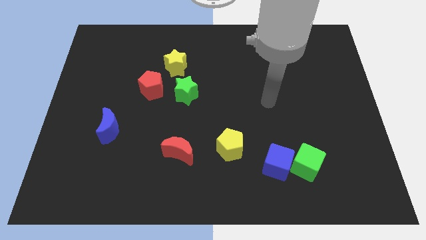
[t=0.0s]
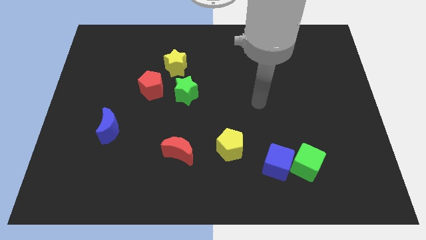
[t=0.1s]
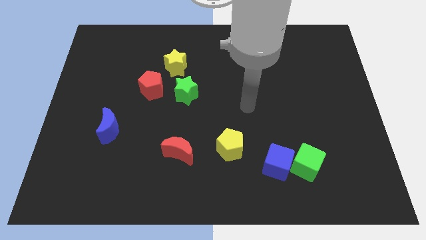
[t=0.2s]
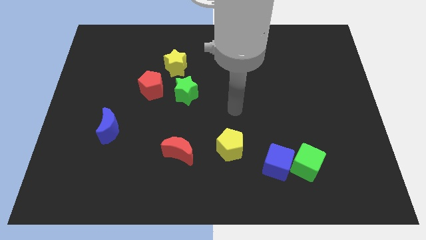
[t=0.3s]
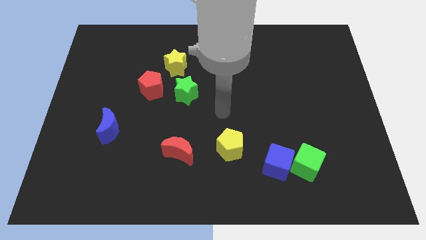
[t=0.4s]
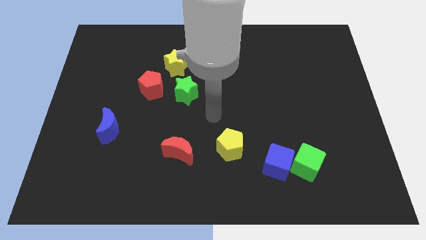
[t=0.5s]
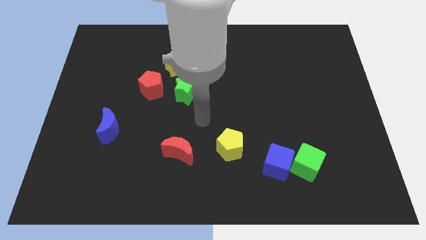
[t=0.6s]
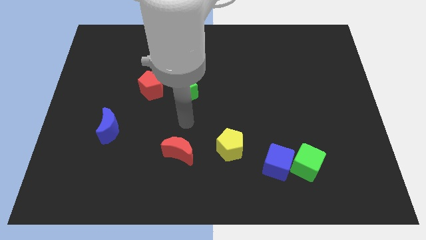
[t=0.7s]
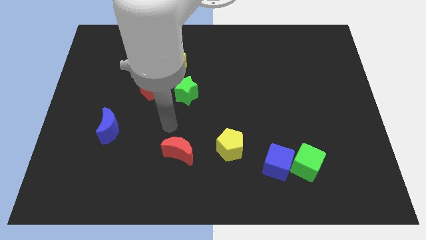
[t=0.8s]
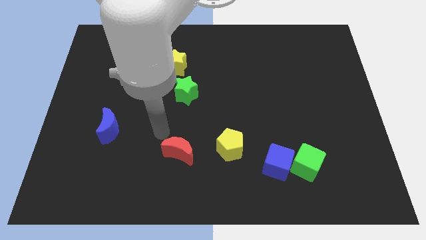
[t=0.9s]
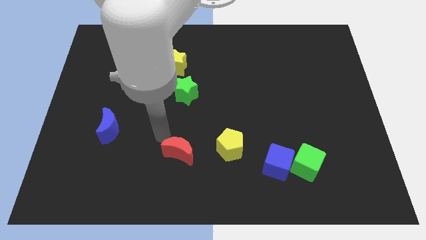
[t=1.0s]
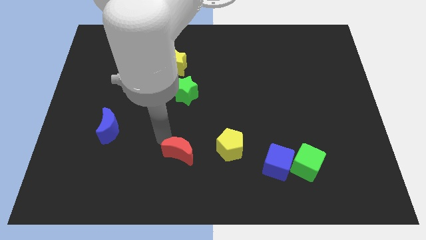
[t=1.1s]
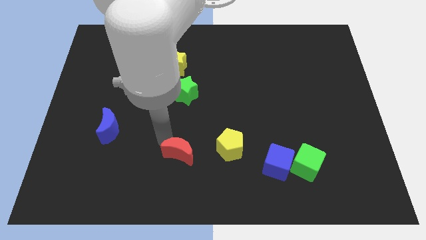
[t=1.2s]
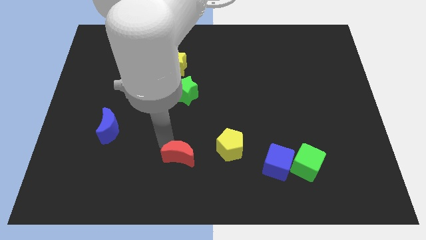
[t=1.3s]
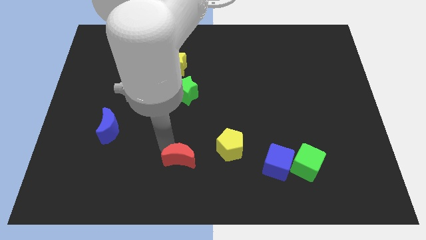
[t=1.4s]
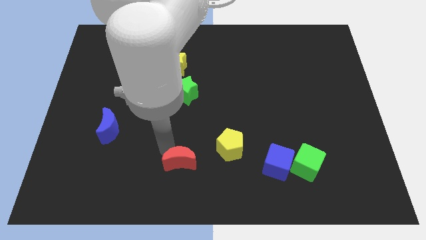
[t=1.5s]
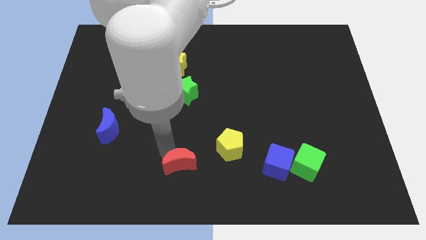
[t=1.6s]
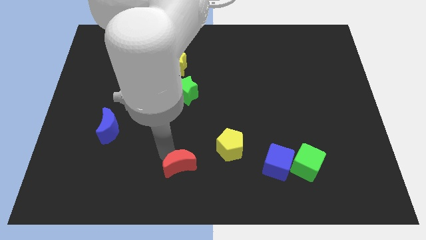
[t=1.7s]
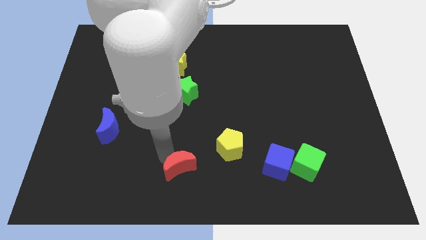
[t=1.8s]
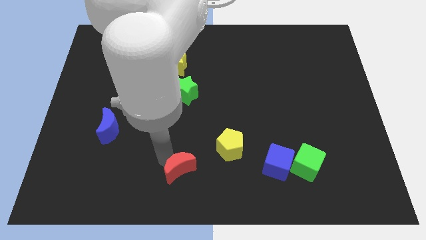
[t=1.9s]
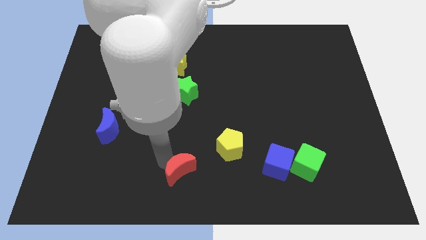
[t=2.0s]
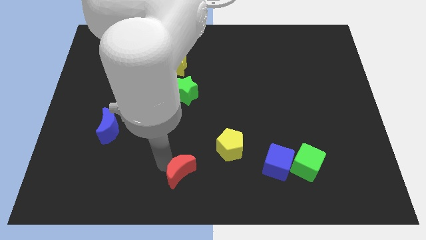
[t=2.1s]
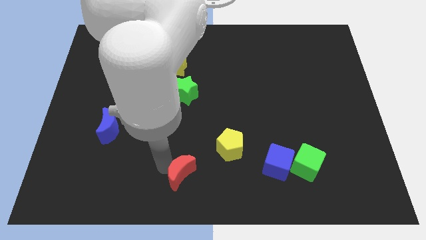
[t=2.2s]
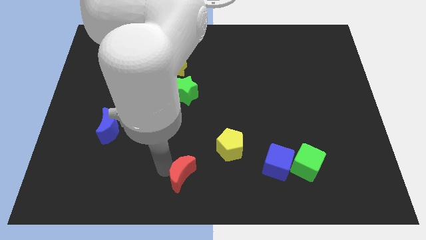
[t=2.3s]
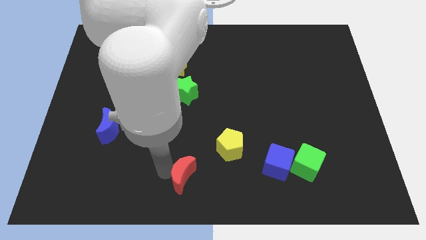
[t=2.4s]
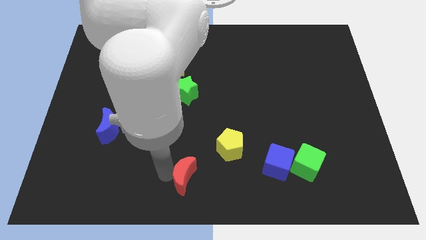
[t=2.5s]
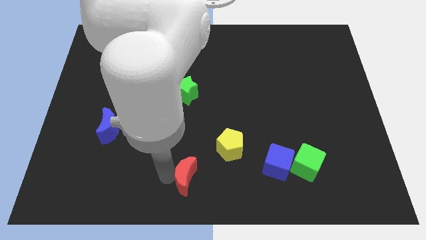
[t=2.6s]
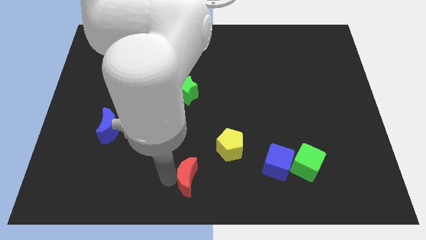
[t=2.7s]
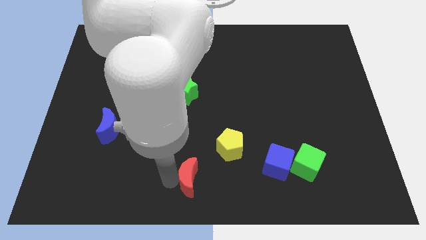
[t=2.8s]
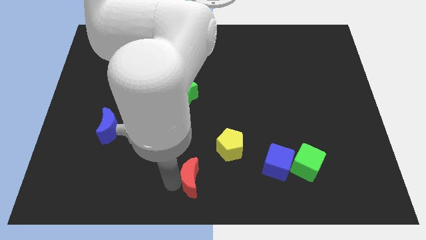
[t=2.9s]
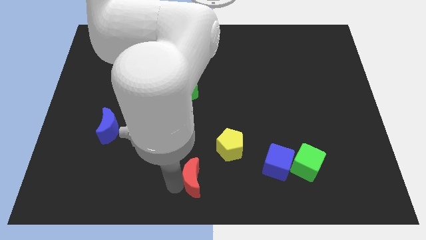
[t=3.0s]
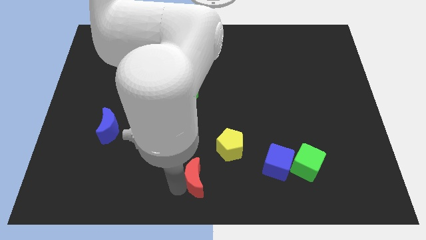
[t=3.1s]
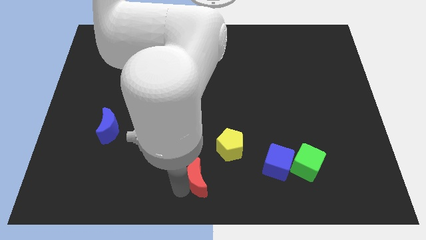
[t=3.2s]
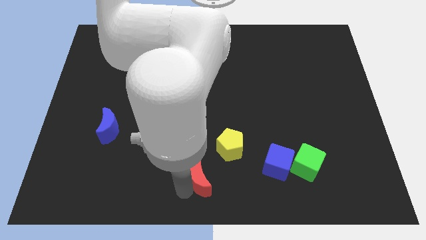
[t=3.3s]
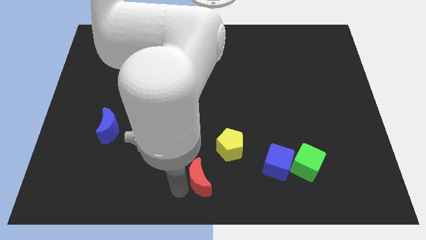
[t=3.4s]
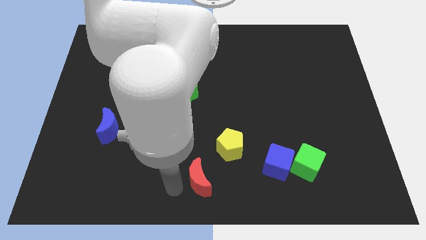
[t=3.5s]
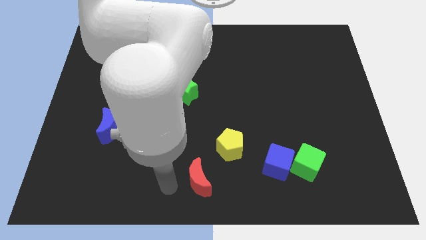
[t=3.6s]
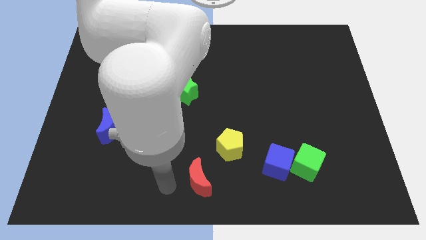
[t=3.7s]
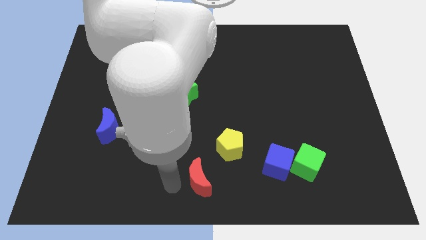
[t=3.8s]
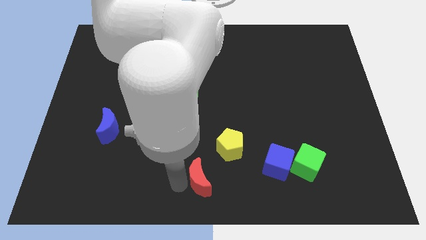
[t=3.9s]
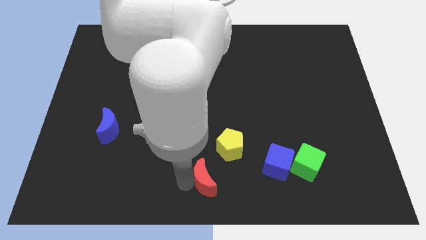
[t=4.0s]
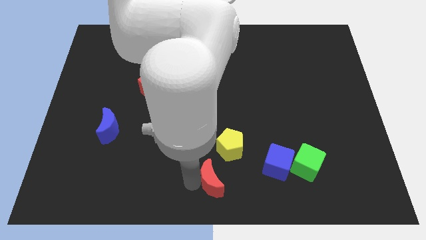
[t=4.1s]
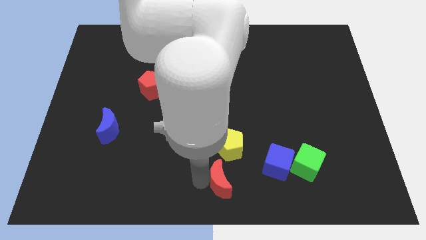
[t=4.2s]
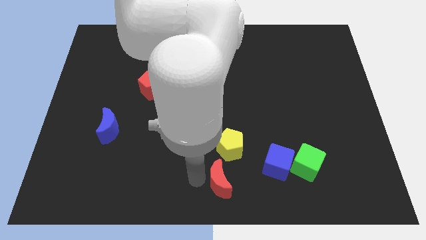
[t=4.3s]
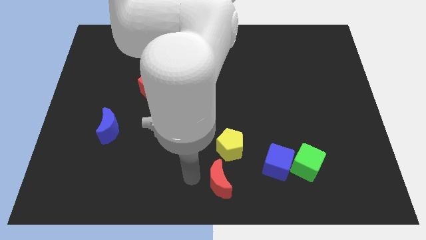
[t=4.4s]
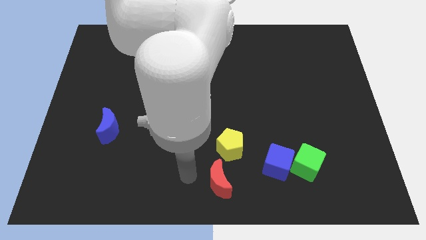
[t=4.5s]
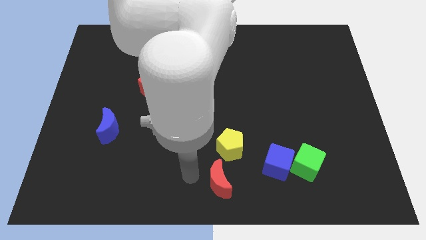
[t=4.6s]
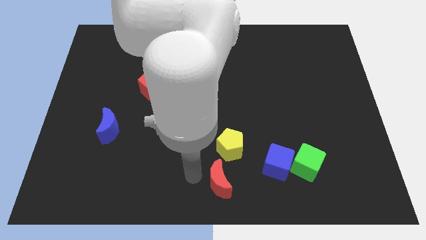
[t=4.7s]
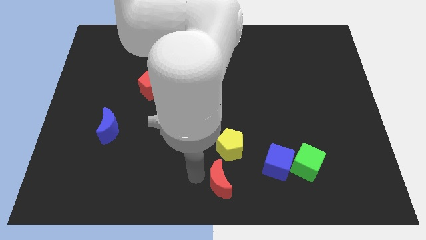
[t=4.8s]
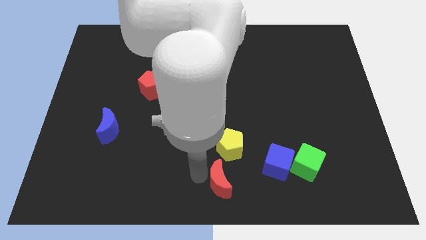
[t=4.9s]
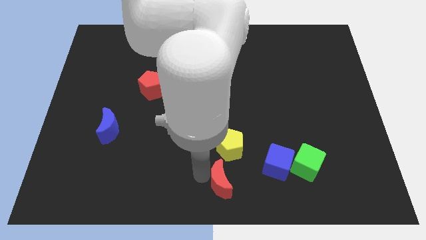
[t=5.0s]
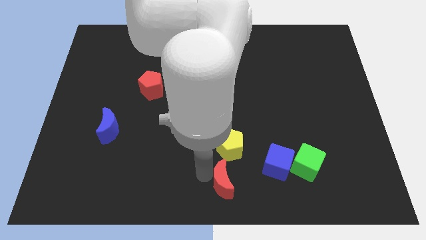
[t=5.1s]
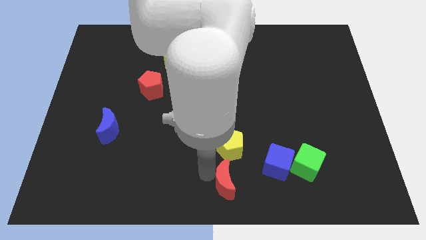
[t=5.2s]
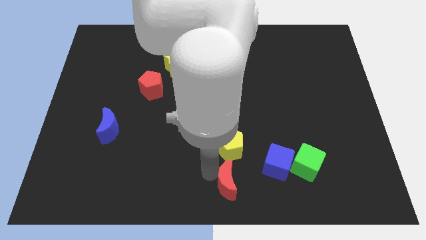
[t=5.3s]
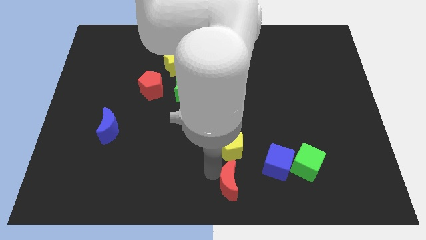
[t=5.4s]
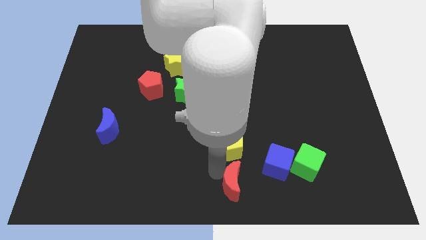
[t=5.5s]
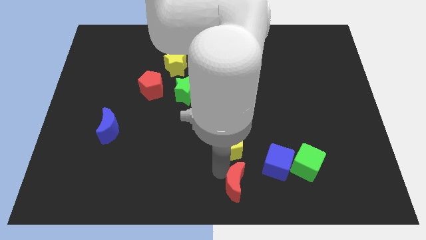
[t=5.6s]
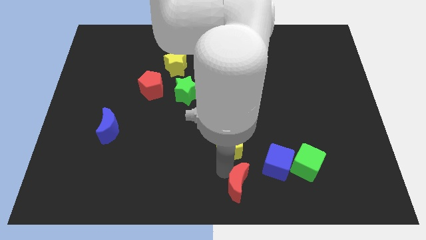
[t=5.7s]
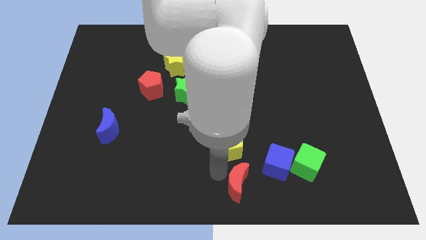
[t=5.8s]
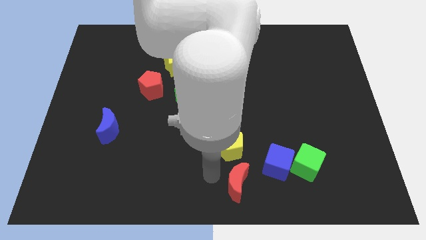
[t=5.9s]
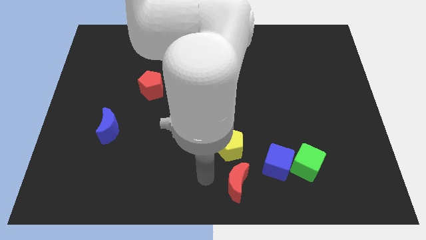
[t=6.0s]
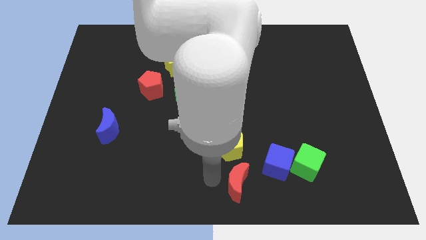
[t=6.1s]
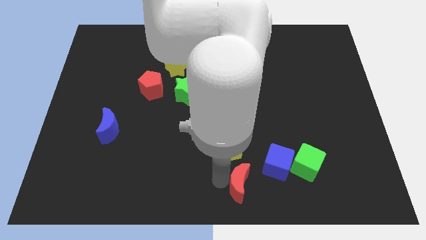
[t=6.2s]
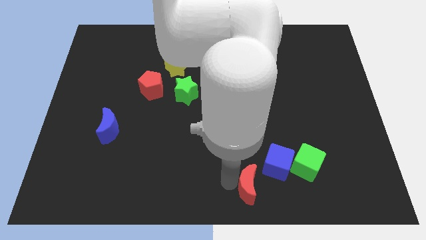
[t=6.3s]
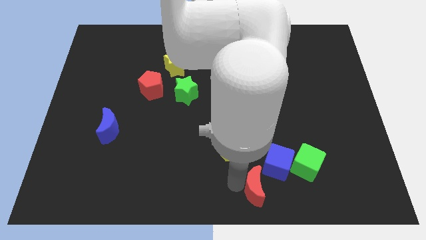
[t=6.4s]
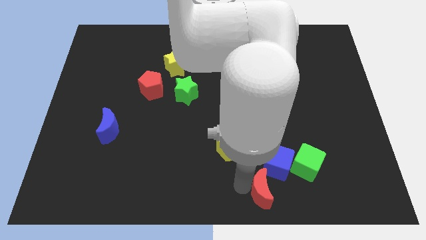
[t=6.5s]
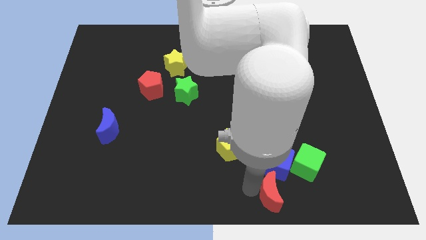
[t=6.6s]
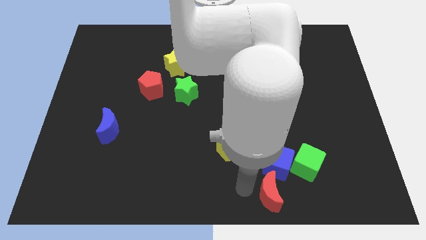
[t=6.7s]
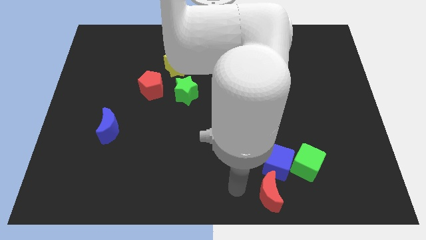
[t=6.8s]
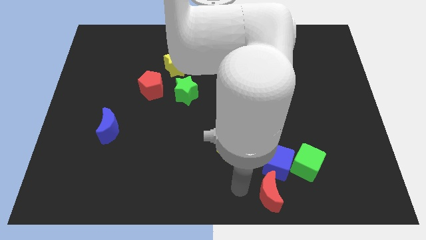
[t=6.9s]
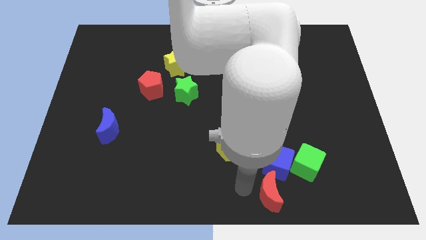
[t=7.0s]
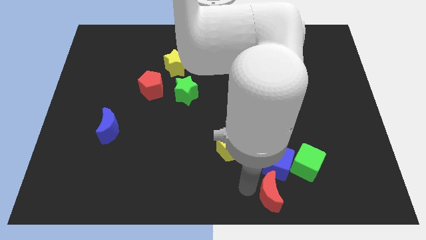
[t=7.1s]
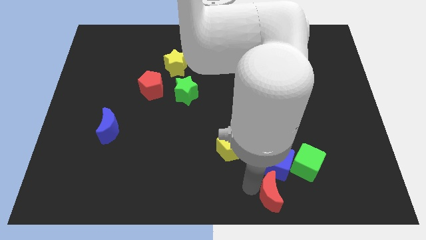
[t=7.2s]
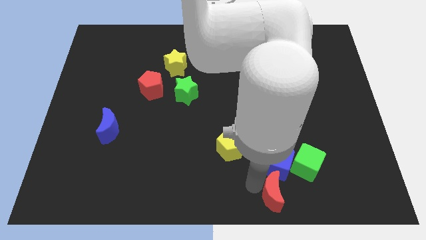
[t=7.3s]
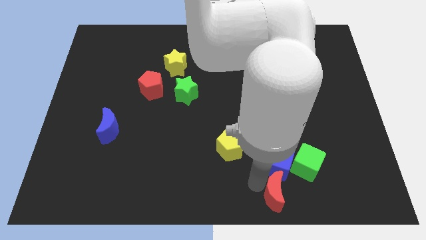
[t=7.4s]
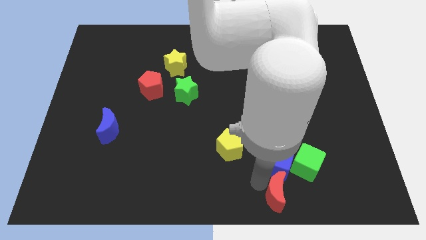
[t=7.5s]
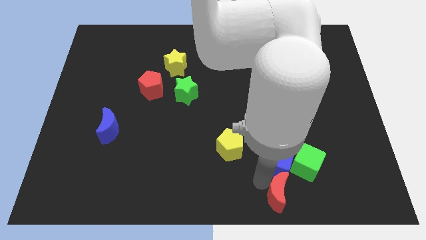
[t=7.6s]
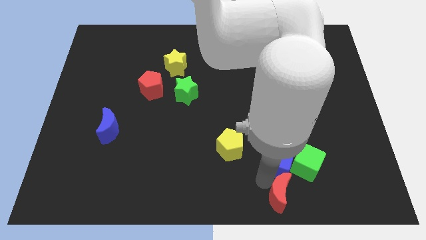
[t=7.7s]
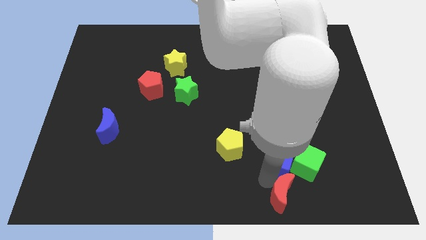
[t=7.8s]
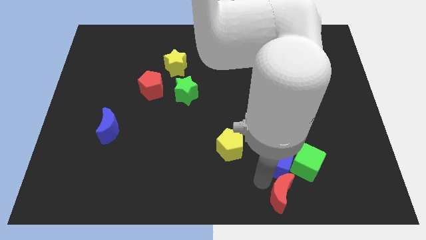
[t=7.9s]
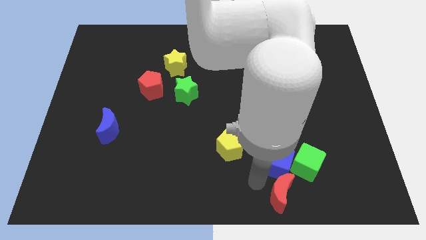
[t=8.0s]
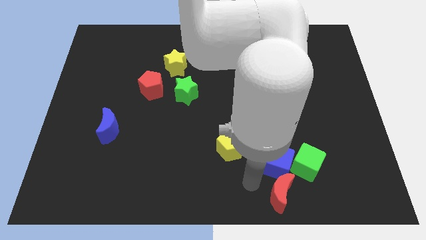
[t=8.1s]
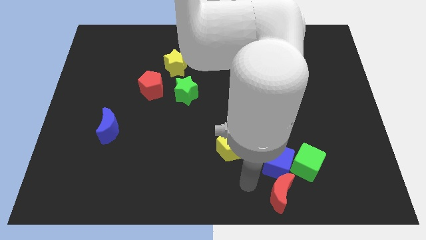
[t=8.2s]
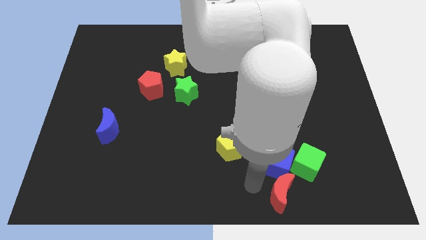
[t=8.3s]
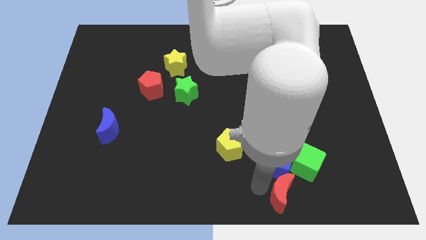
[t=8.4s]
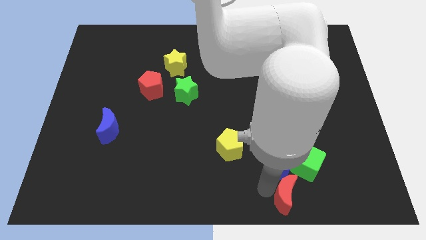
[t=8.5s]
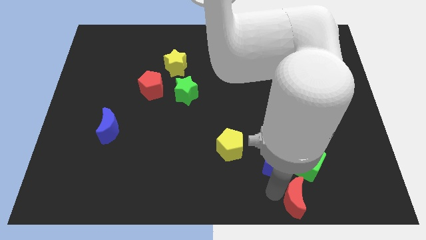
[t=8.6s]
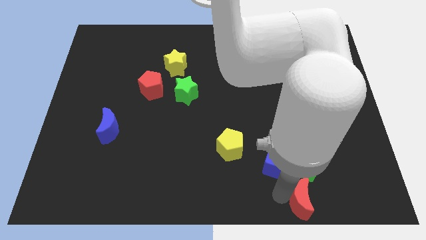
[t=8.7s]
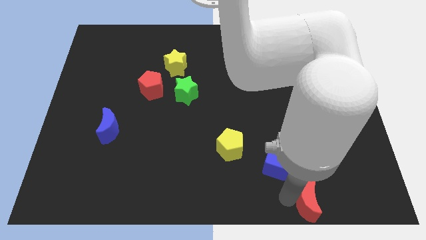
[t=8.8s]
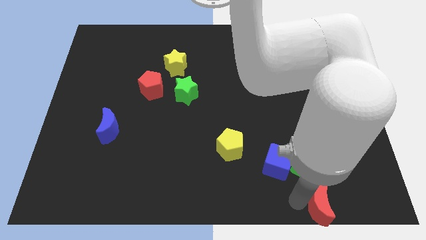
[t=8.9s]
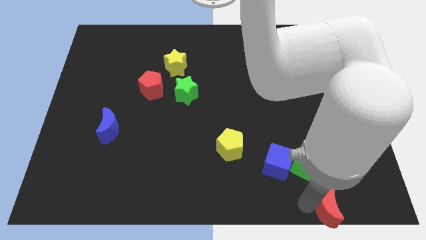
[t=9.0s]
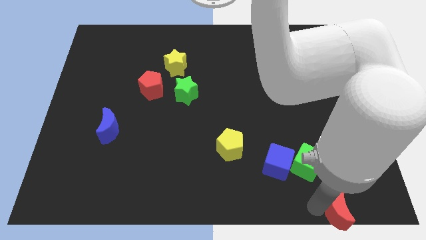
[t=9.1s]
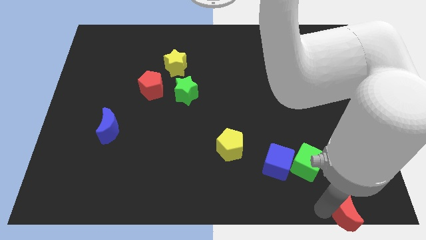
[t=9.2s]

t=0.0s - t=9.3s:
put the red moon to the lower right corner
